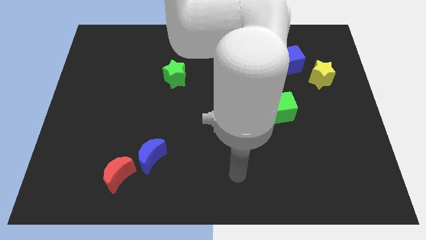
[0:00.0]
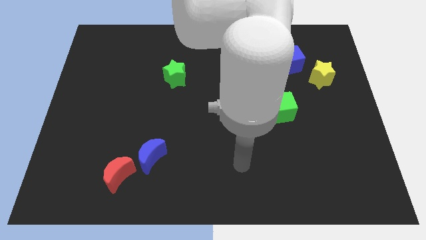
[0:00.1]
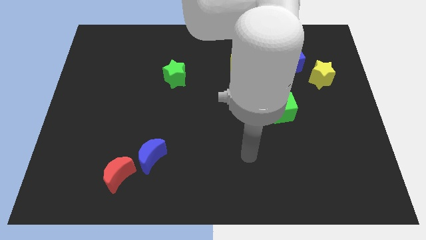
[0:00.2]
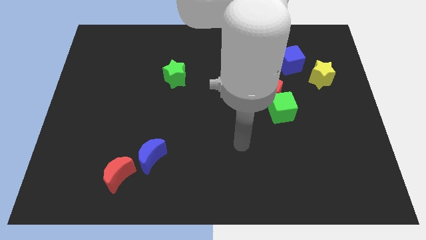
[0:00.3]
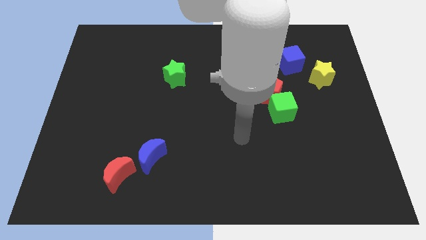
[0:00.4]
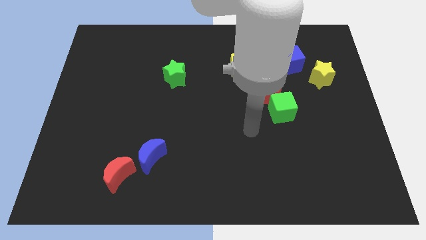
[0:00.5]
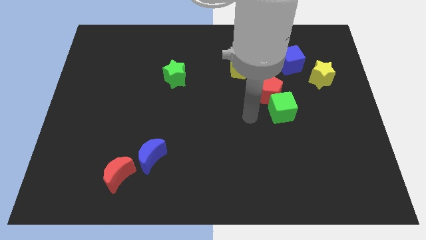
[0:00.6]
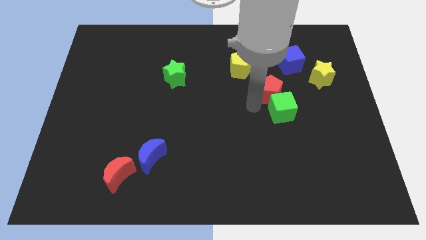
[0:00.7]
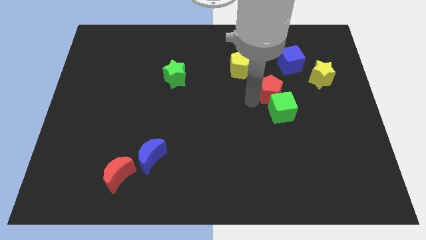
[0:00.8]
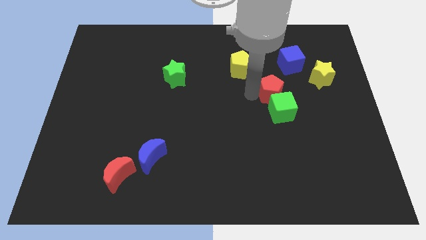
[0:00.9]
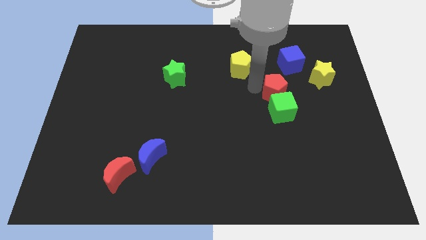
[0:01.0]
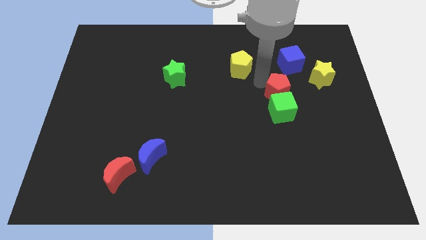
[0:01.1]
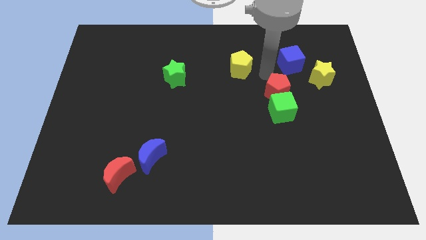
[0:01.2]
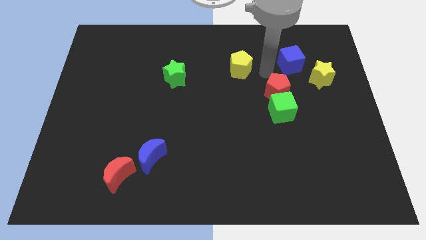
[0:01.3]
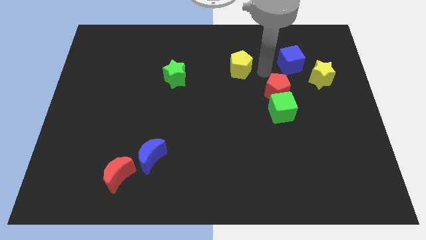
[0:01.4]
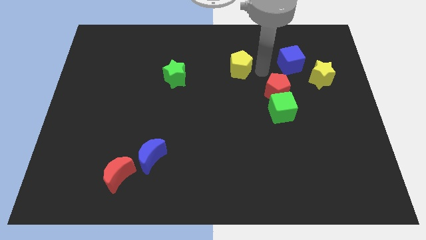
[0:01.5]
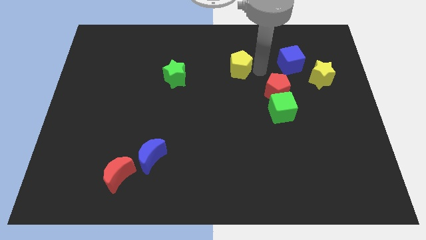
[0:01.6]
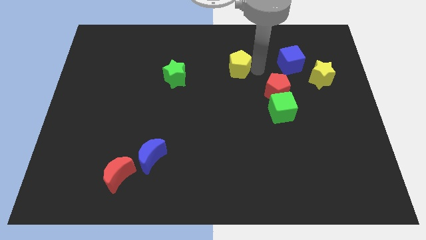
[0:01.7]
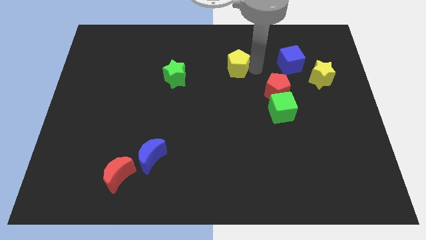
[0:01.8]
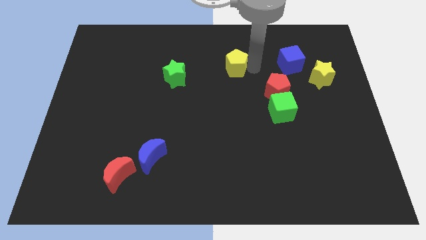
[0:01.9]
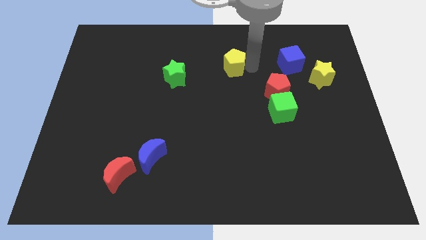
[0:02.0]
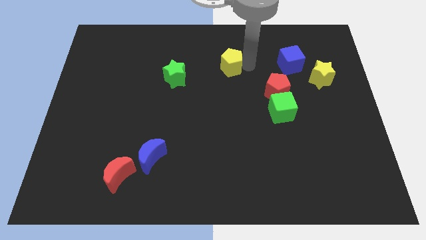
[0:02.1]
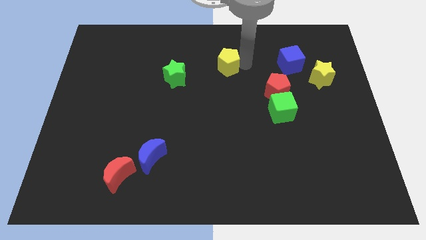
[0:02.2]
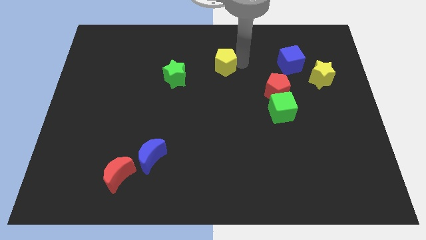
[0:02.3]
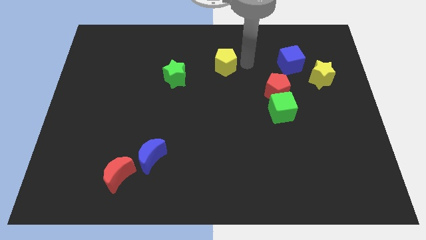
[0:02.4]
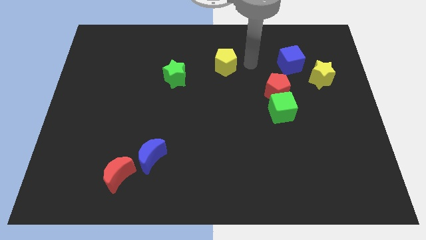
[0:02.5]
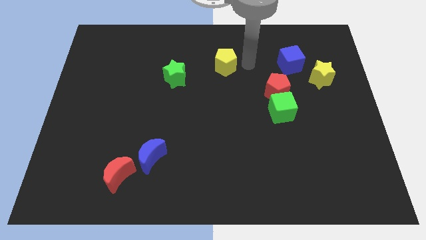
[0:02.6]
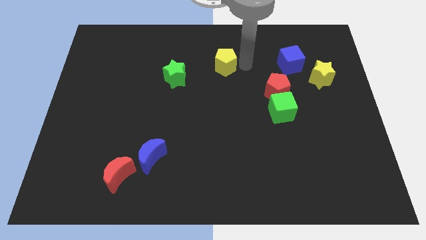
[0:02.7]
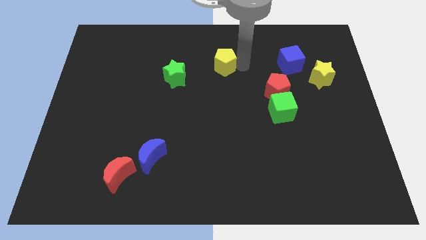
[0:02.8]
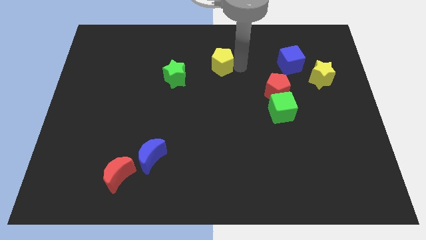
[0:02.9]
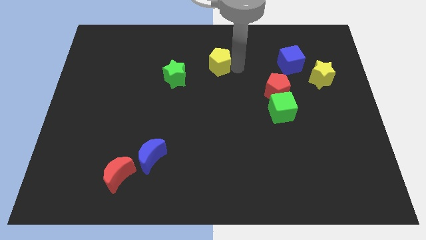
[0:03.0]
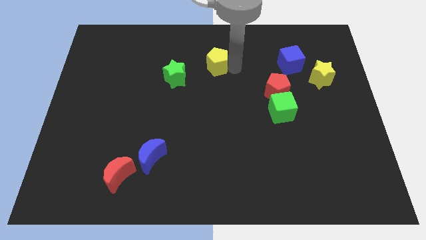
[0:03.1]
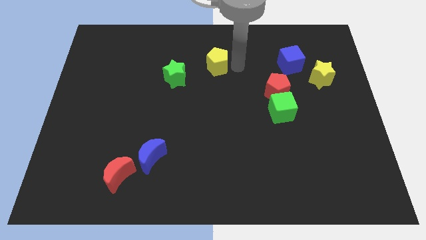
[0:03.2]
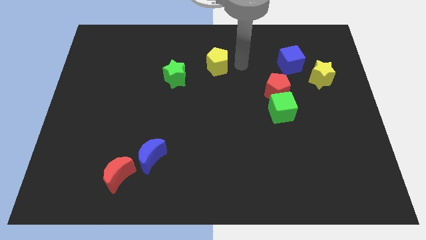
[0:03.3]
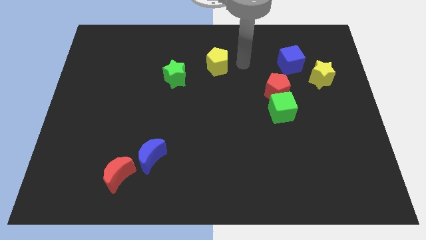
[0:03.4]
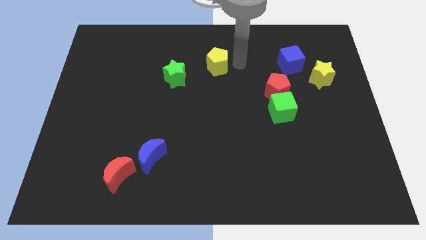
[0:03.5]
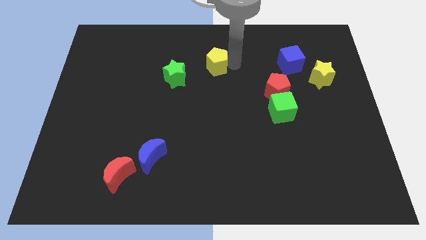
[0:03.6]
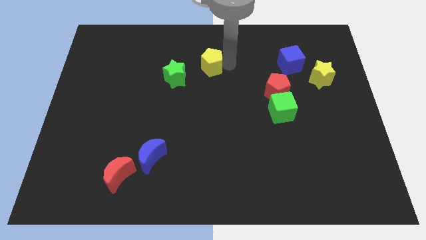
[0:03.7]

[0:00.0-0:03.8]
slide the yellow pentagon left a bit

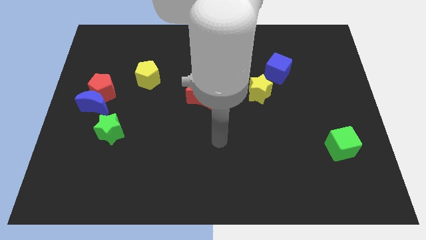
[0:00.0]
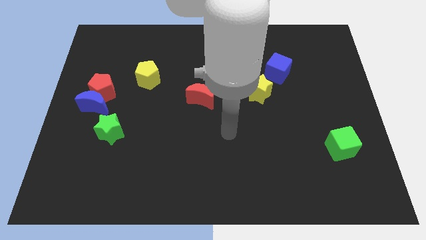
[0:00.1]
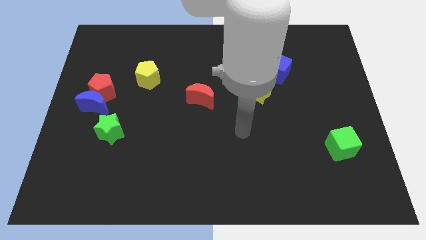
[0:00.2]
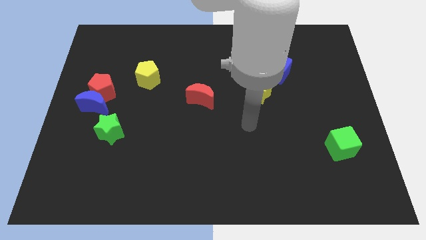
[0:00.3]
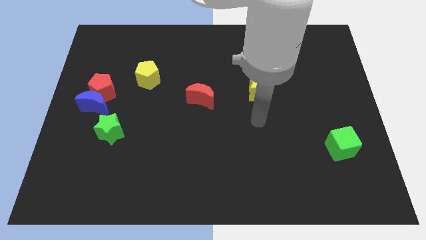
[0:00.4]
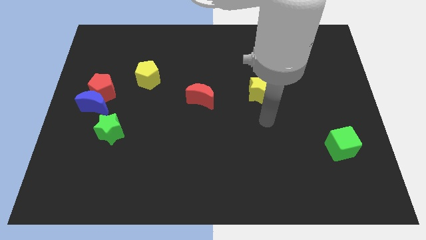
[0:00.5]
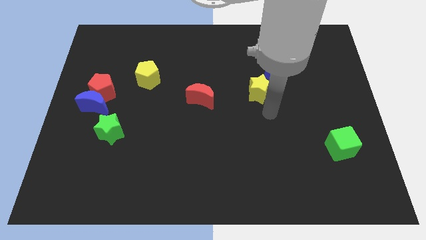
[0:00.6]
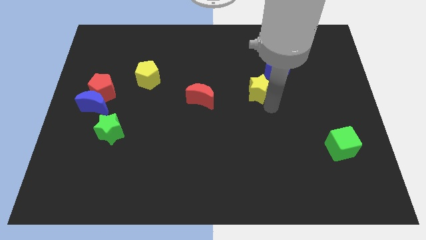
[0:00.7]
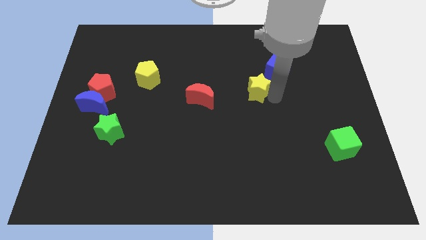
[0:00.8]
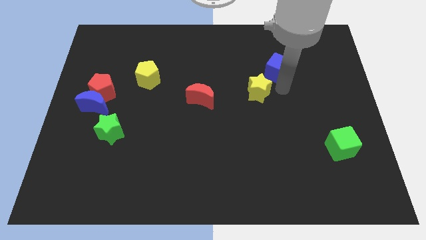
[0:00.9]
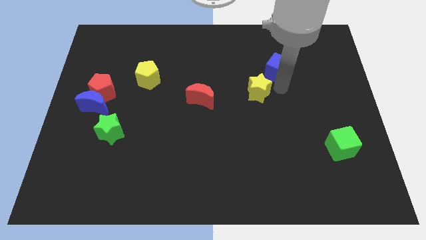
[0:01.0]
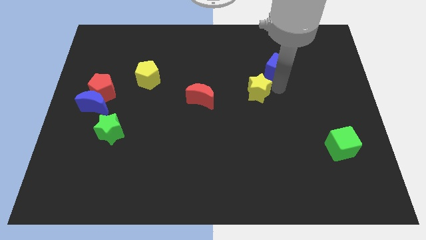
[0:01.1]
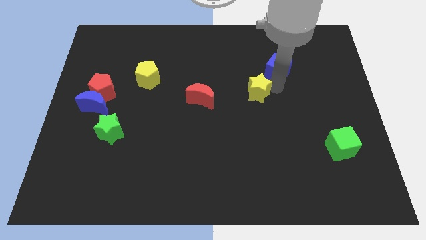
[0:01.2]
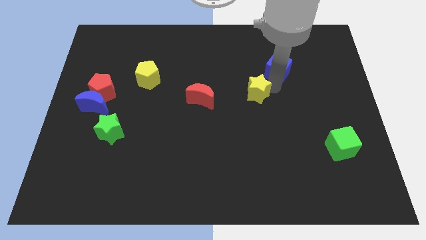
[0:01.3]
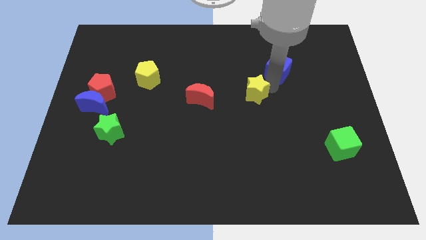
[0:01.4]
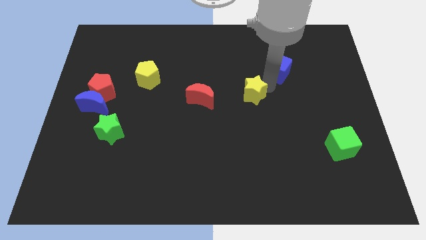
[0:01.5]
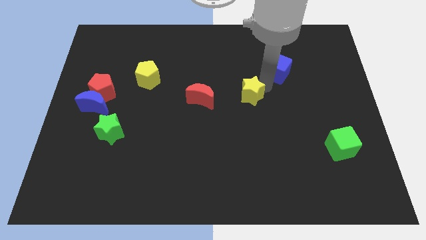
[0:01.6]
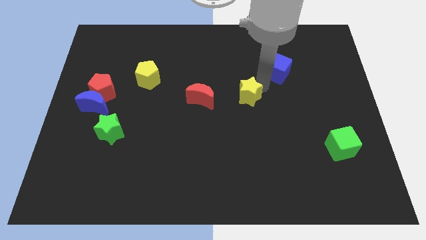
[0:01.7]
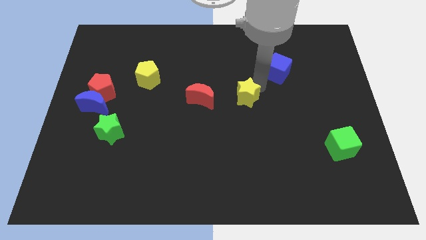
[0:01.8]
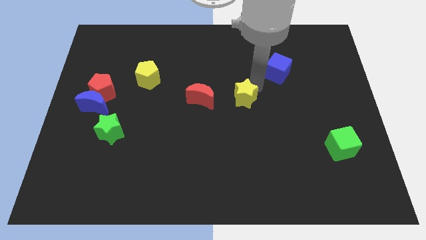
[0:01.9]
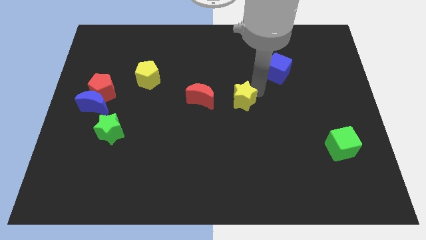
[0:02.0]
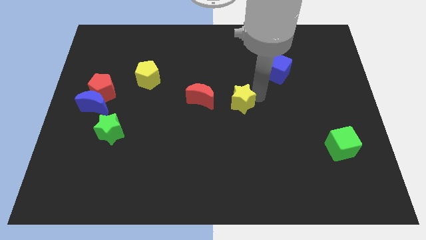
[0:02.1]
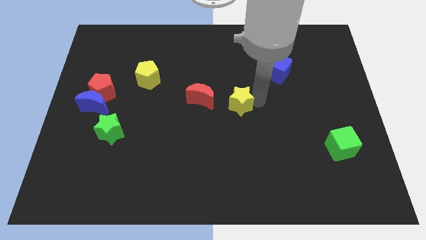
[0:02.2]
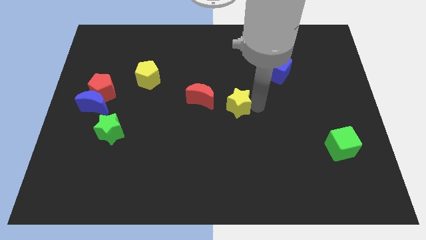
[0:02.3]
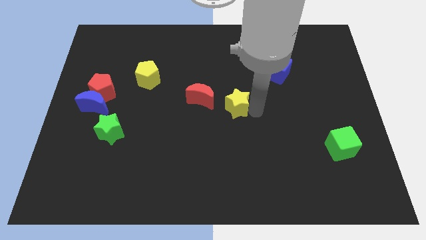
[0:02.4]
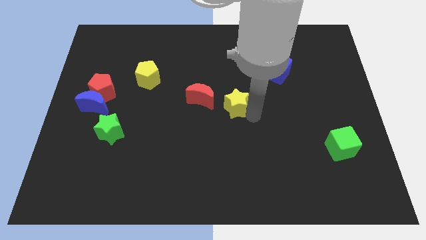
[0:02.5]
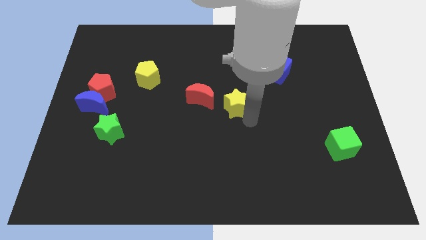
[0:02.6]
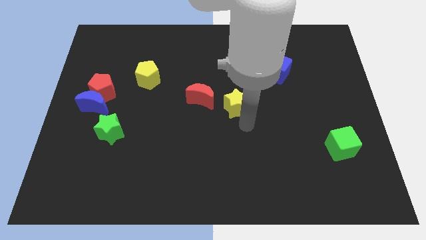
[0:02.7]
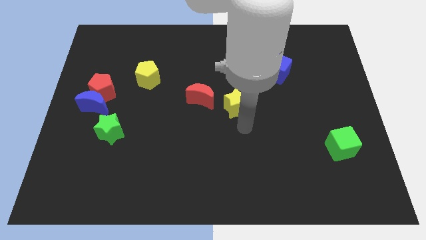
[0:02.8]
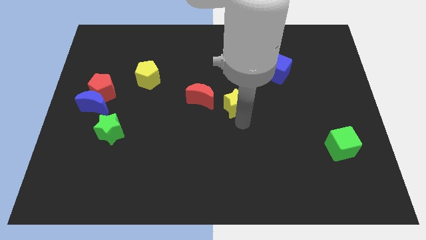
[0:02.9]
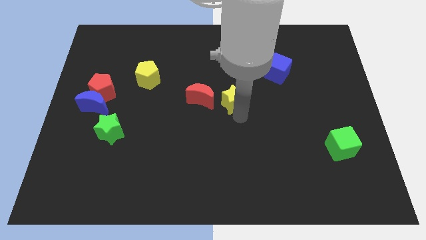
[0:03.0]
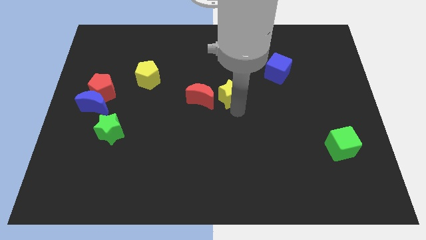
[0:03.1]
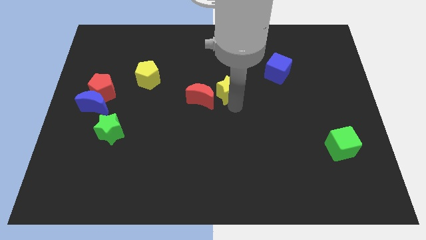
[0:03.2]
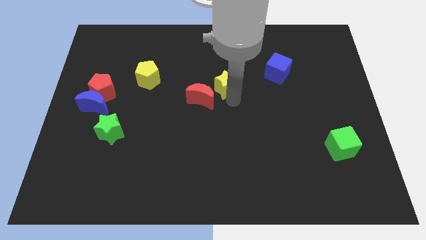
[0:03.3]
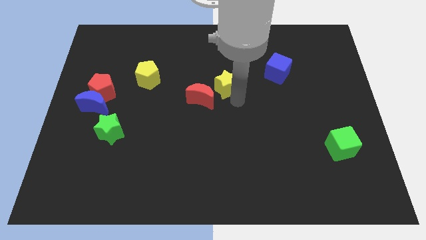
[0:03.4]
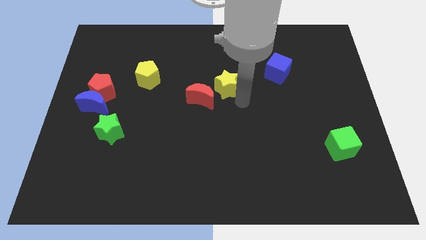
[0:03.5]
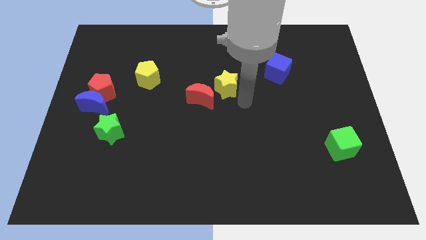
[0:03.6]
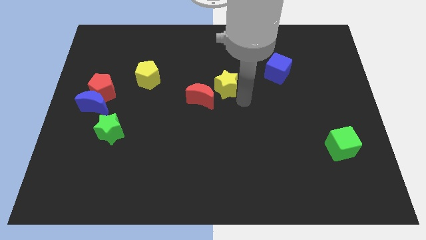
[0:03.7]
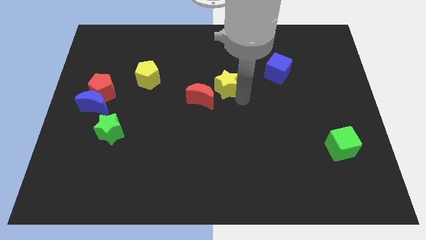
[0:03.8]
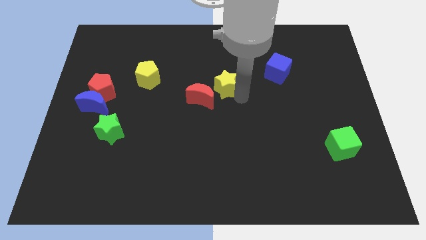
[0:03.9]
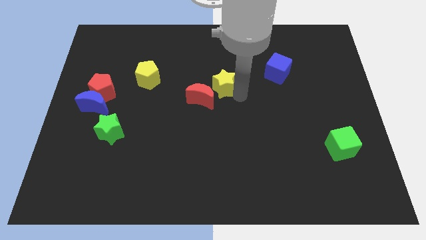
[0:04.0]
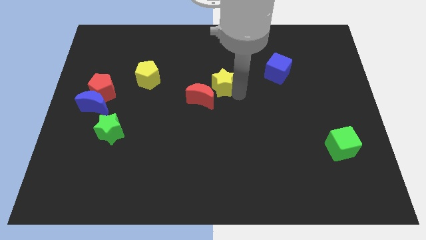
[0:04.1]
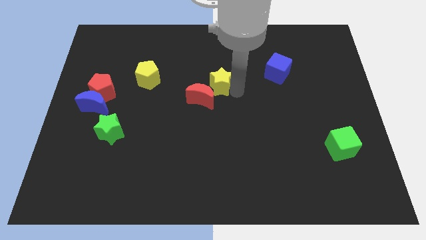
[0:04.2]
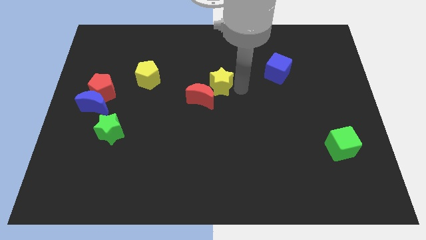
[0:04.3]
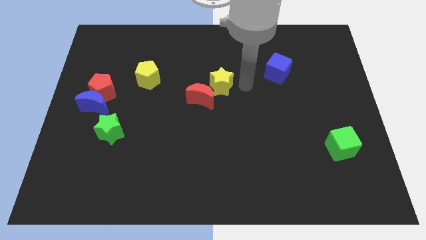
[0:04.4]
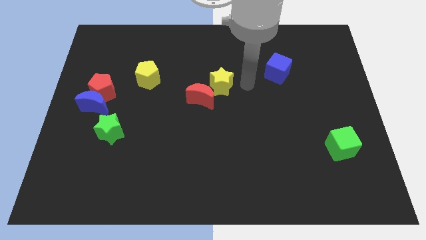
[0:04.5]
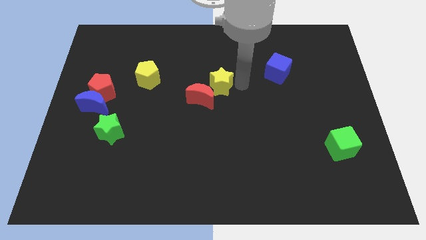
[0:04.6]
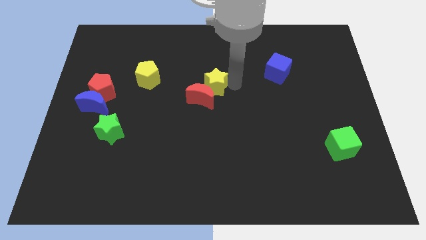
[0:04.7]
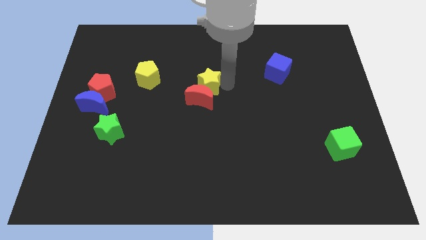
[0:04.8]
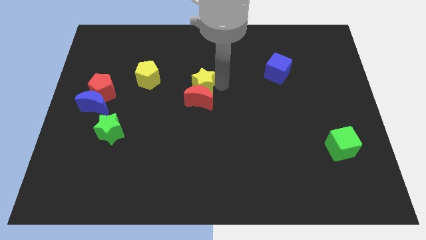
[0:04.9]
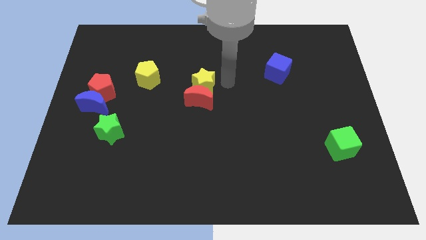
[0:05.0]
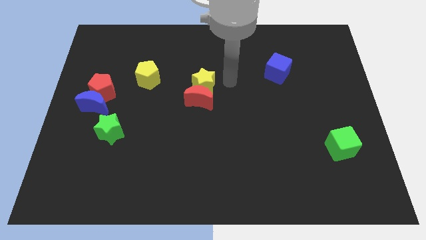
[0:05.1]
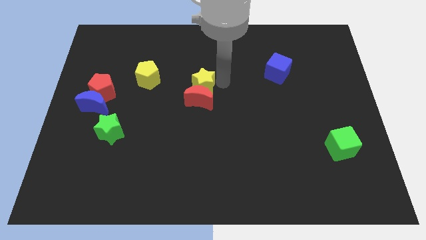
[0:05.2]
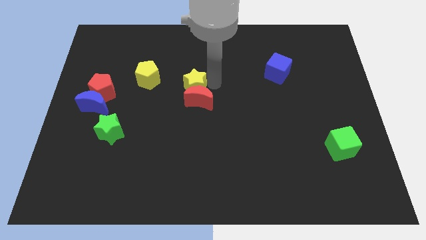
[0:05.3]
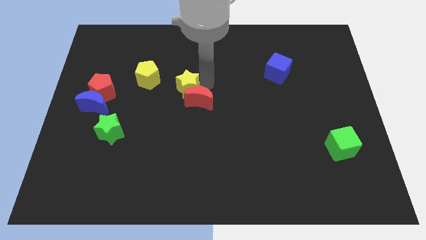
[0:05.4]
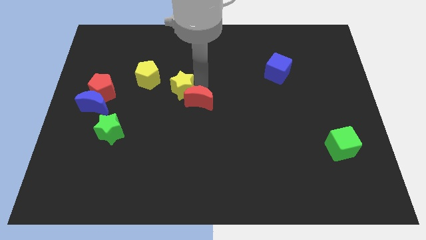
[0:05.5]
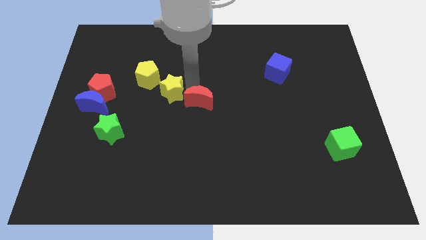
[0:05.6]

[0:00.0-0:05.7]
move the yellow star left
